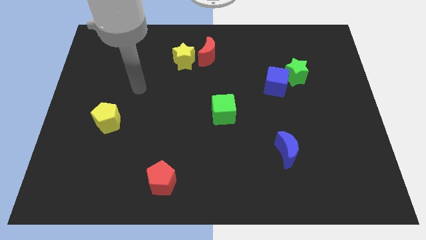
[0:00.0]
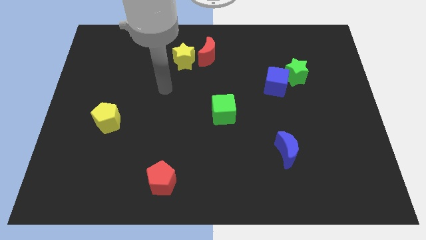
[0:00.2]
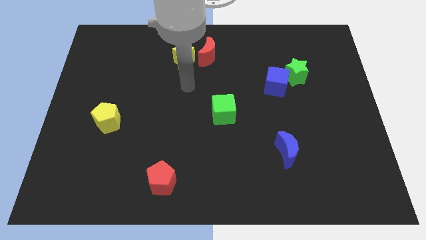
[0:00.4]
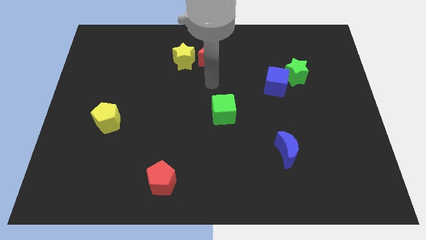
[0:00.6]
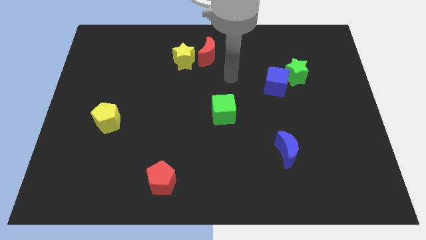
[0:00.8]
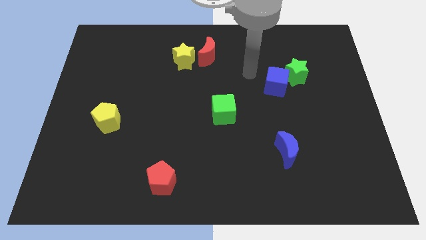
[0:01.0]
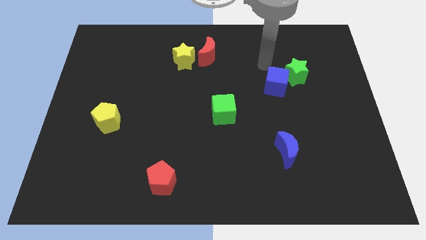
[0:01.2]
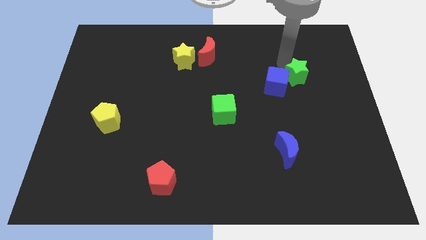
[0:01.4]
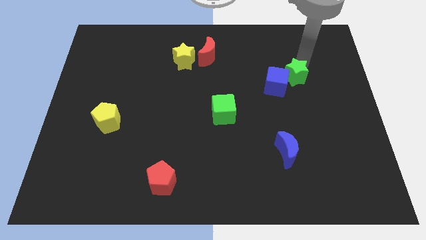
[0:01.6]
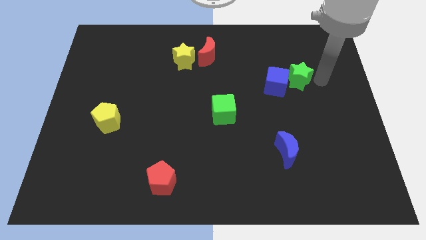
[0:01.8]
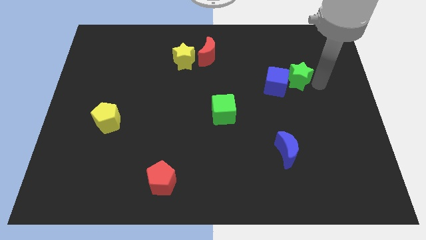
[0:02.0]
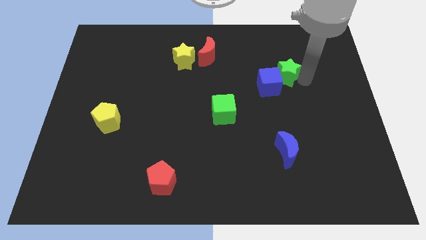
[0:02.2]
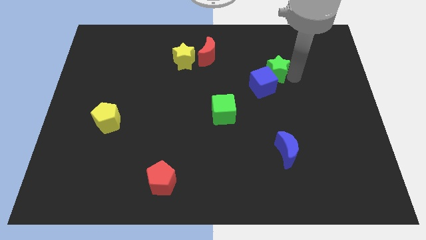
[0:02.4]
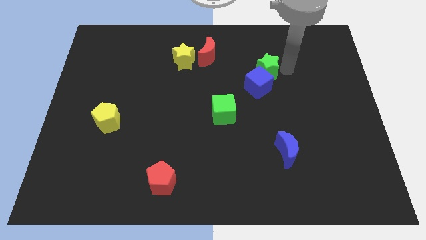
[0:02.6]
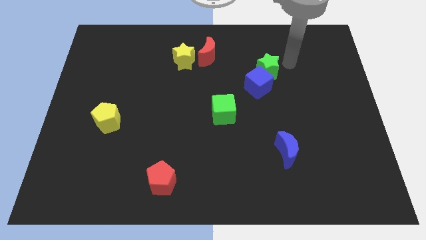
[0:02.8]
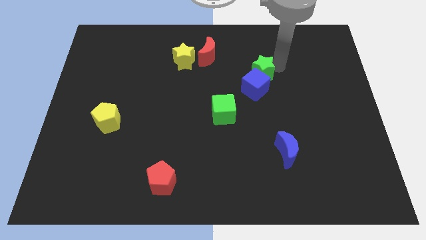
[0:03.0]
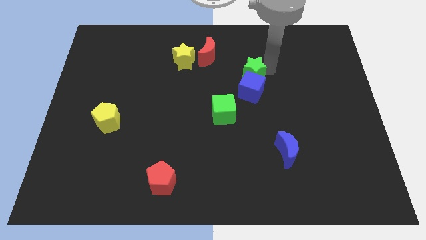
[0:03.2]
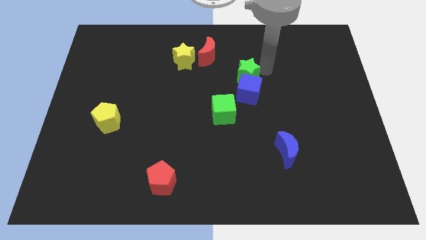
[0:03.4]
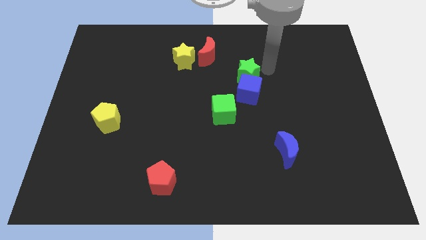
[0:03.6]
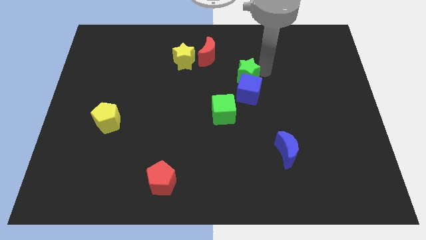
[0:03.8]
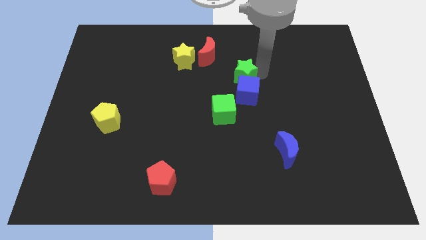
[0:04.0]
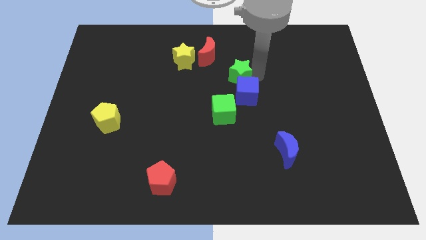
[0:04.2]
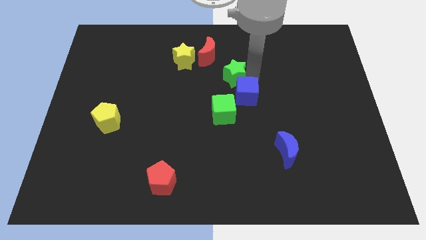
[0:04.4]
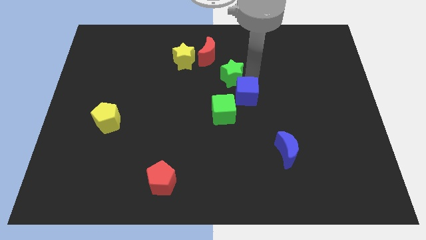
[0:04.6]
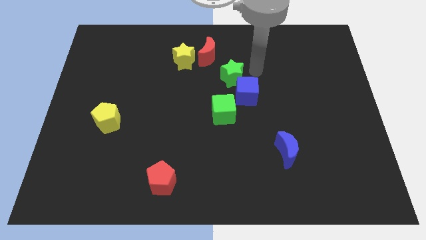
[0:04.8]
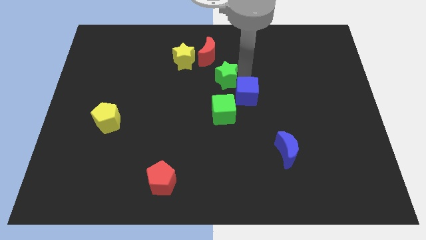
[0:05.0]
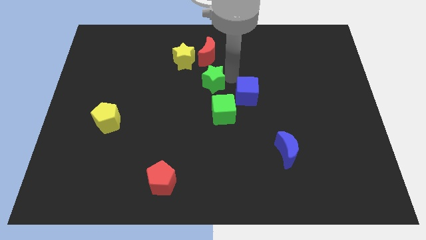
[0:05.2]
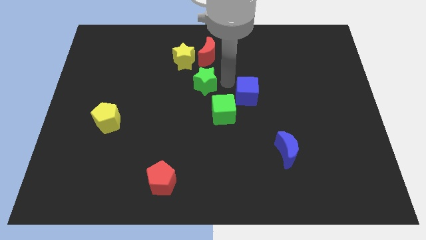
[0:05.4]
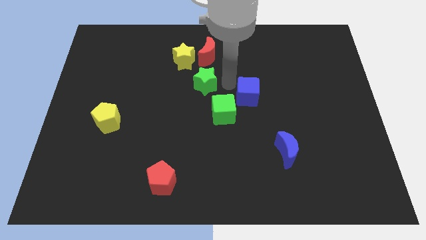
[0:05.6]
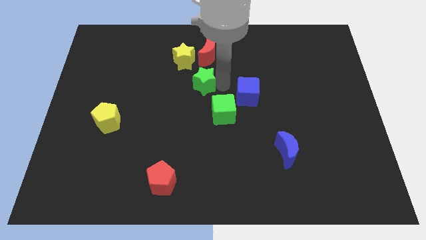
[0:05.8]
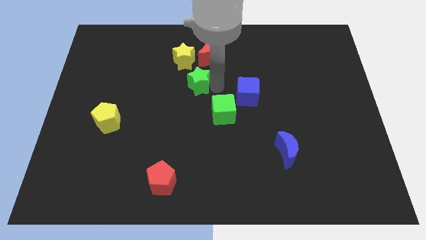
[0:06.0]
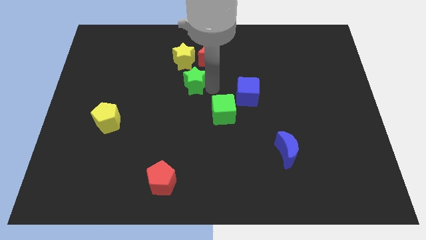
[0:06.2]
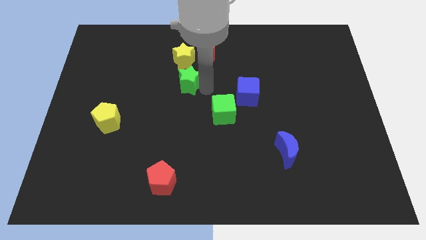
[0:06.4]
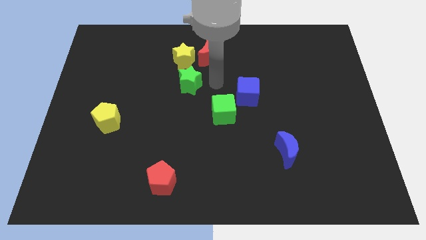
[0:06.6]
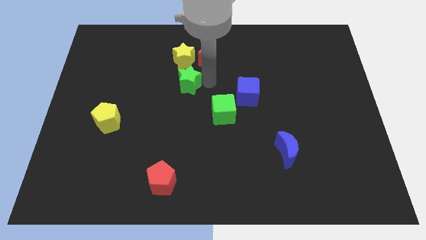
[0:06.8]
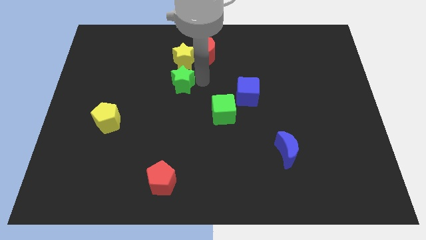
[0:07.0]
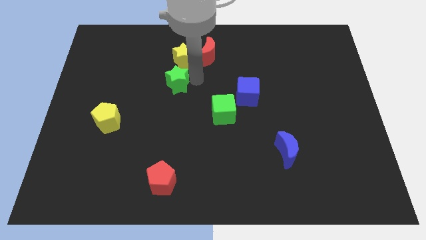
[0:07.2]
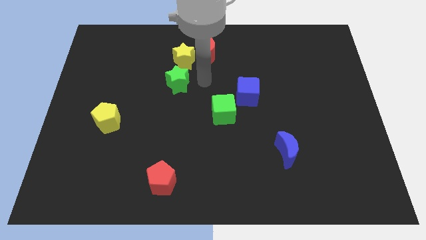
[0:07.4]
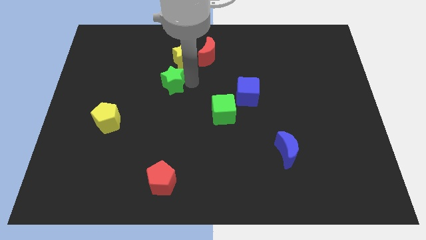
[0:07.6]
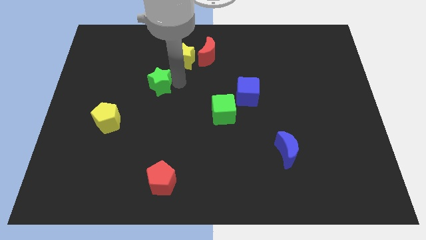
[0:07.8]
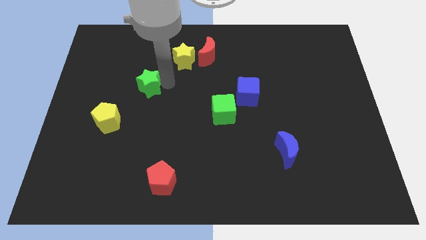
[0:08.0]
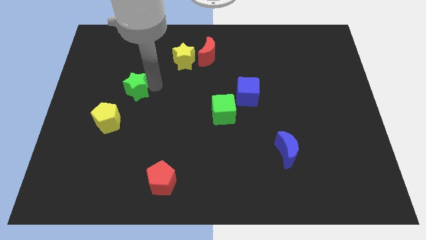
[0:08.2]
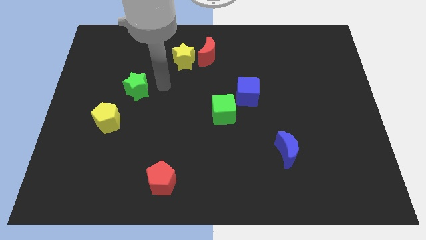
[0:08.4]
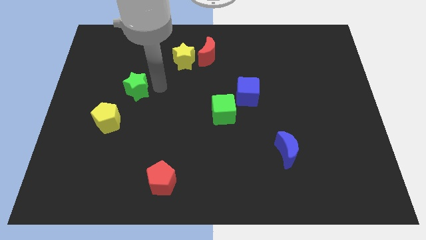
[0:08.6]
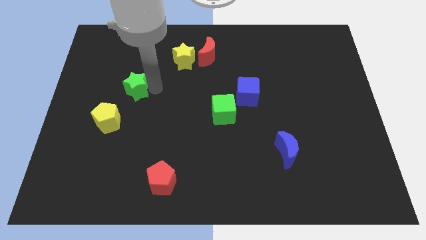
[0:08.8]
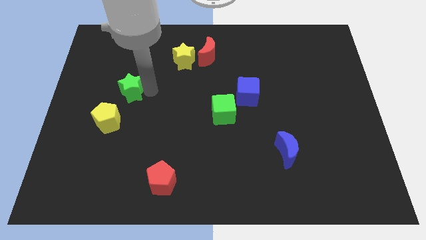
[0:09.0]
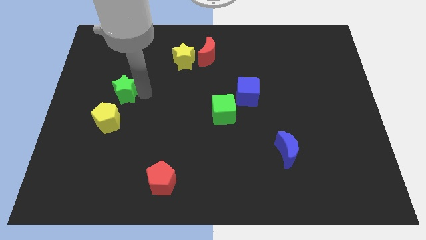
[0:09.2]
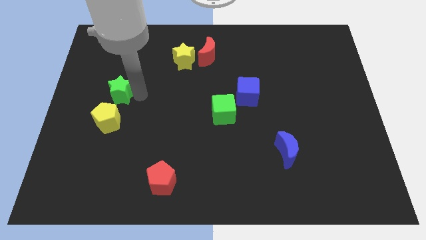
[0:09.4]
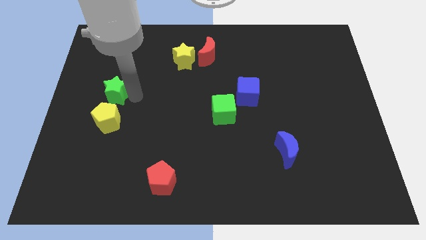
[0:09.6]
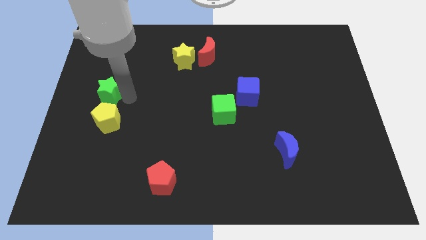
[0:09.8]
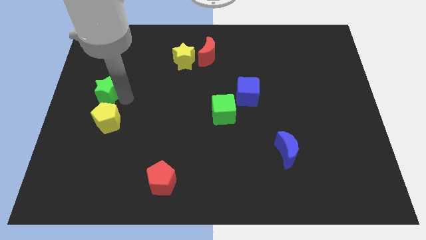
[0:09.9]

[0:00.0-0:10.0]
slide the green star to the center left

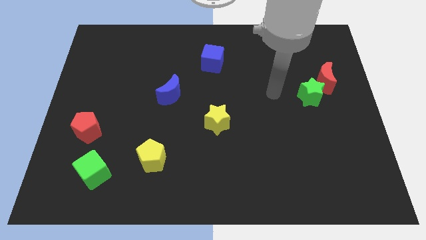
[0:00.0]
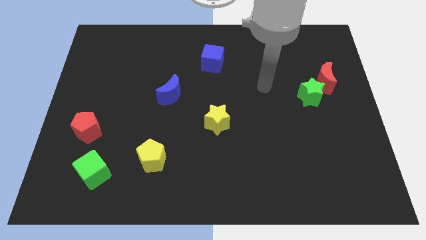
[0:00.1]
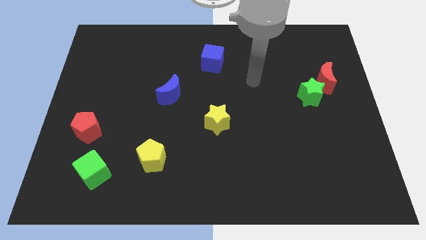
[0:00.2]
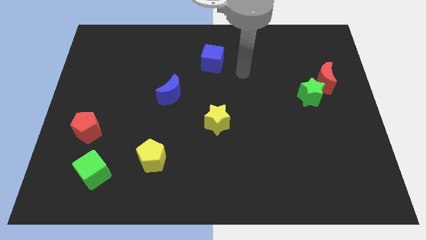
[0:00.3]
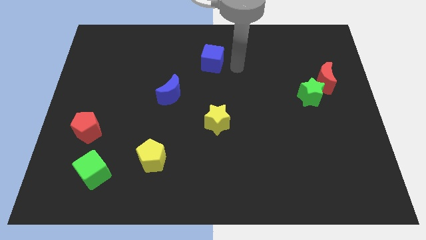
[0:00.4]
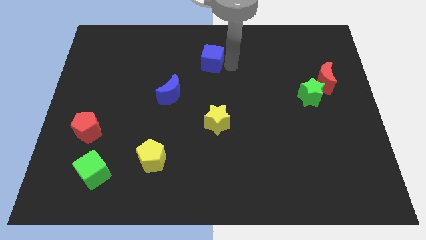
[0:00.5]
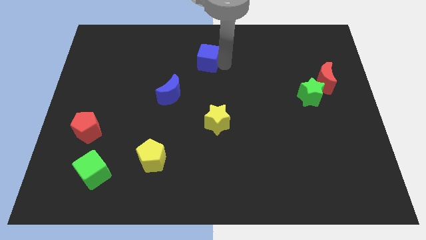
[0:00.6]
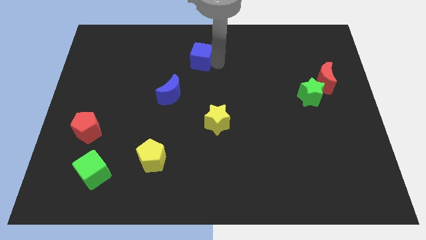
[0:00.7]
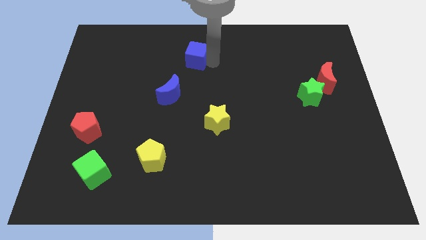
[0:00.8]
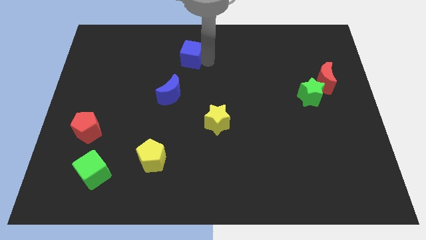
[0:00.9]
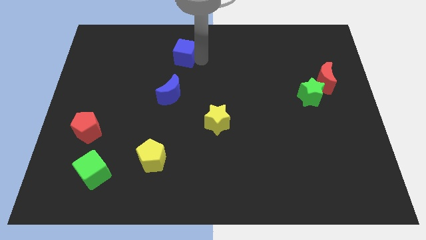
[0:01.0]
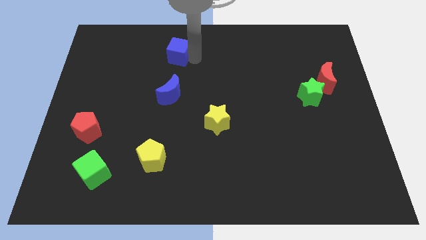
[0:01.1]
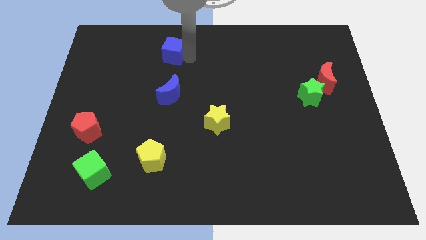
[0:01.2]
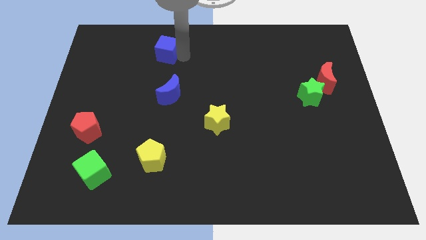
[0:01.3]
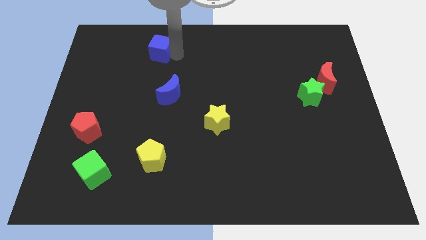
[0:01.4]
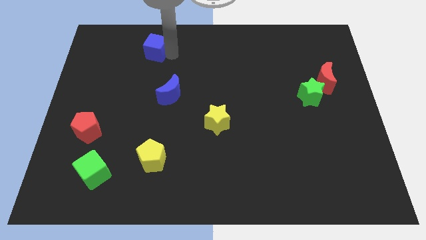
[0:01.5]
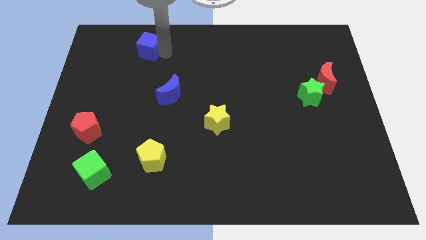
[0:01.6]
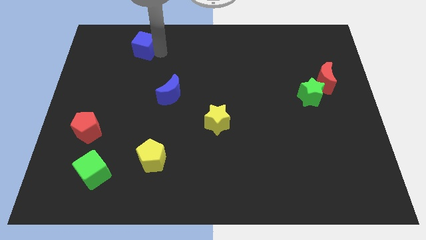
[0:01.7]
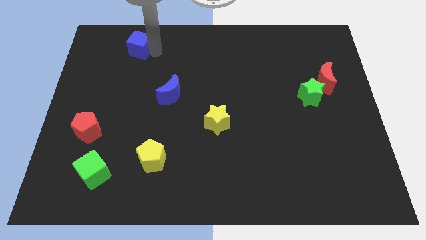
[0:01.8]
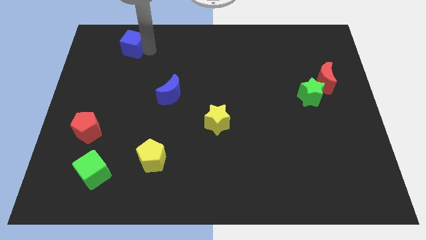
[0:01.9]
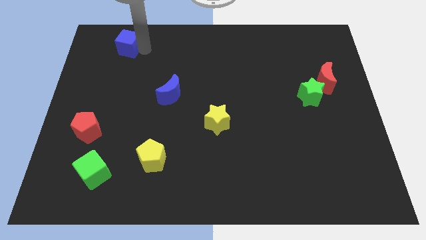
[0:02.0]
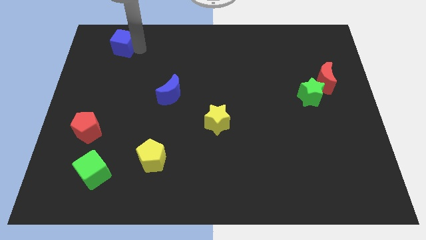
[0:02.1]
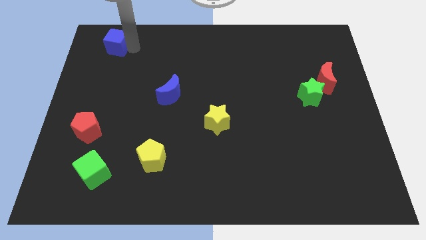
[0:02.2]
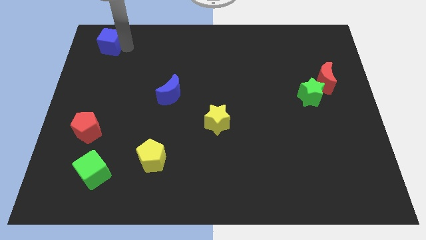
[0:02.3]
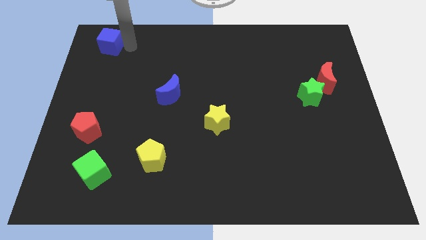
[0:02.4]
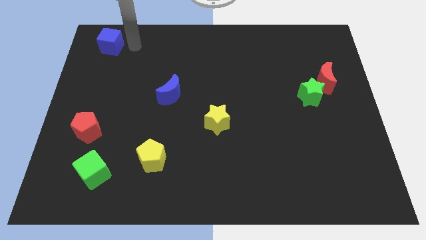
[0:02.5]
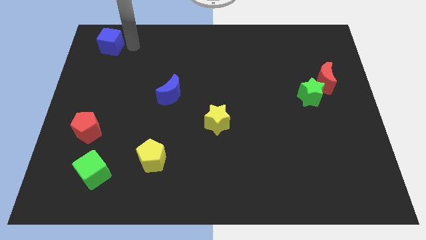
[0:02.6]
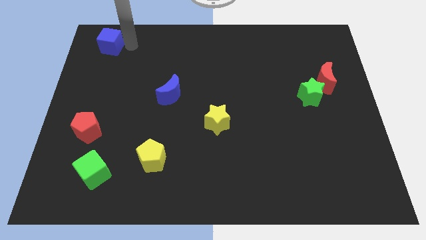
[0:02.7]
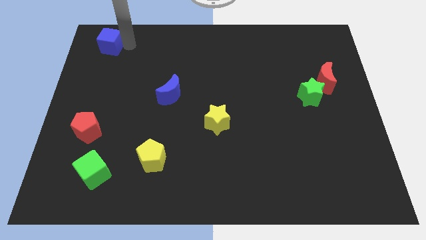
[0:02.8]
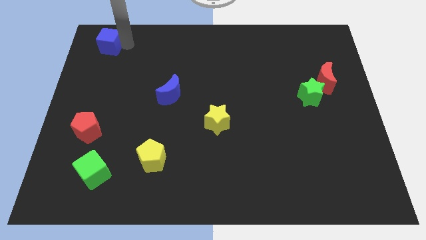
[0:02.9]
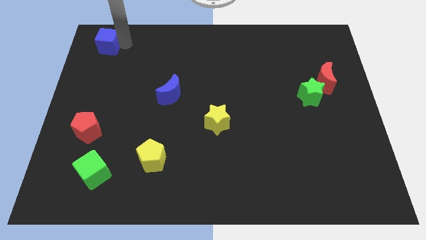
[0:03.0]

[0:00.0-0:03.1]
put the blue cube to the top left corner
